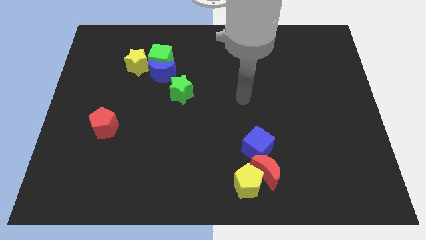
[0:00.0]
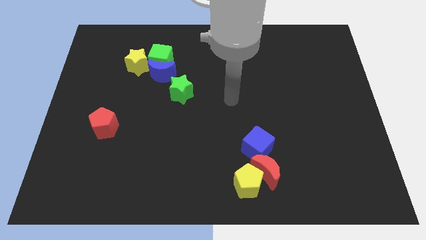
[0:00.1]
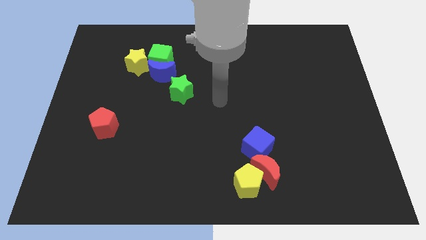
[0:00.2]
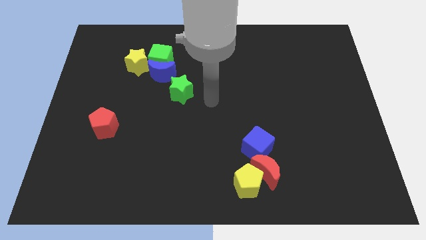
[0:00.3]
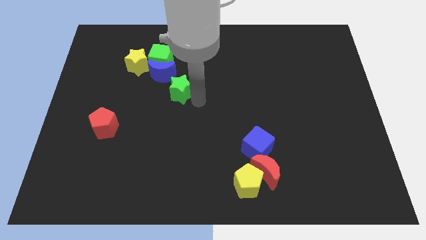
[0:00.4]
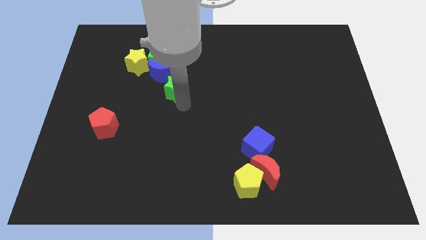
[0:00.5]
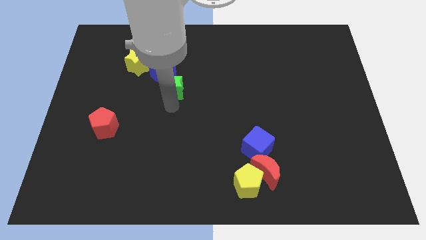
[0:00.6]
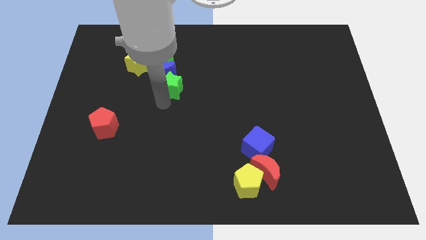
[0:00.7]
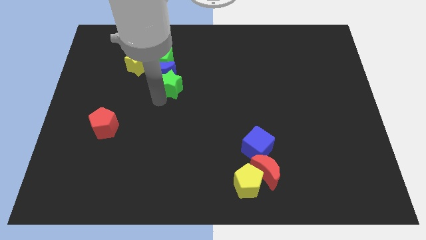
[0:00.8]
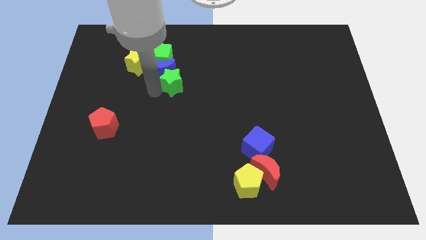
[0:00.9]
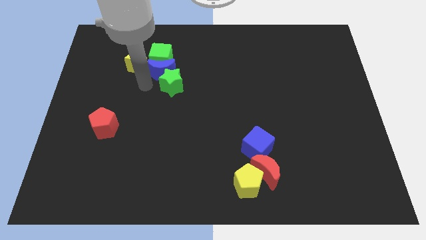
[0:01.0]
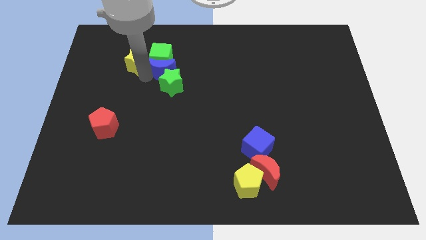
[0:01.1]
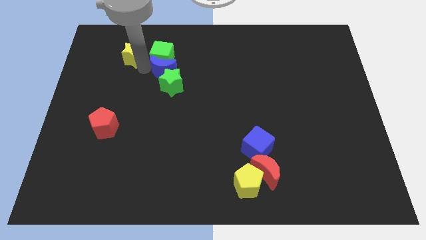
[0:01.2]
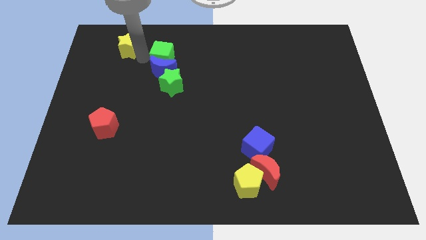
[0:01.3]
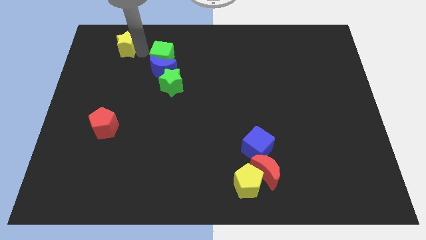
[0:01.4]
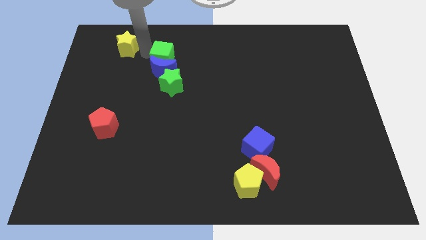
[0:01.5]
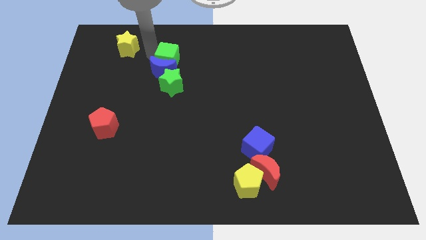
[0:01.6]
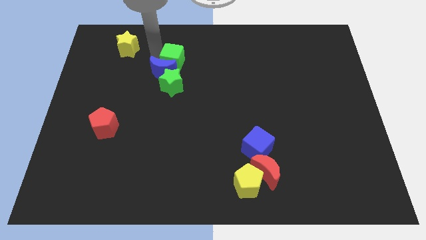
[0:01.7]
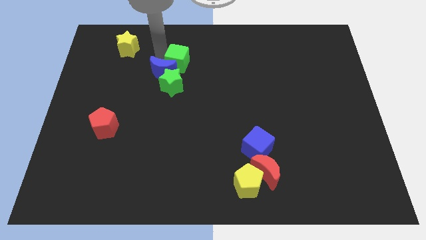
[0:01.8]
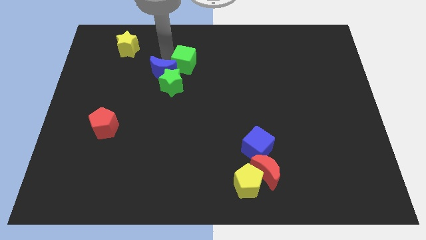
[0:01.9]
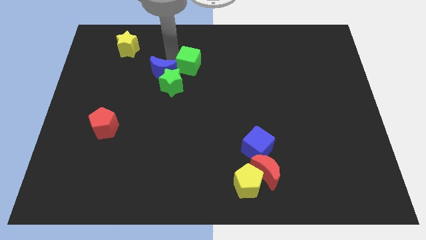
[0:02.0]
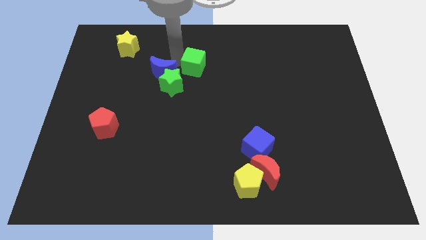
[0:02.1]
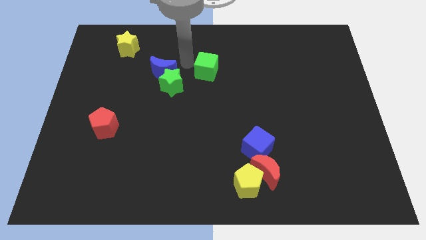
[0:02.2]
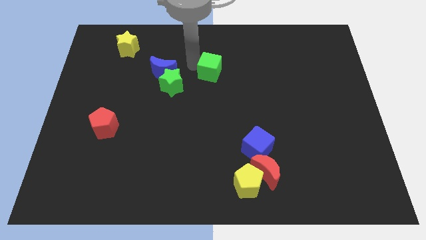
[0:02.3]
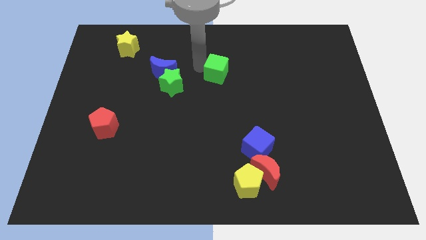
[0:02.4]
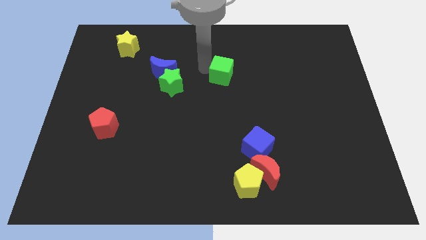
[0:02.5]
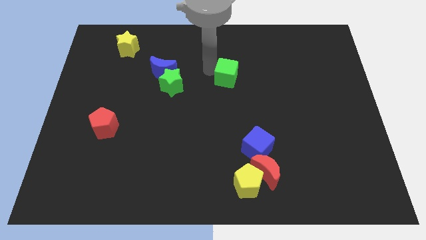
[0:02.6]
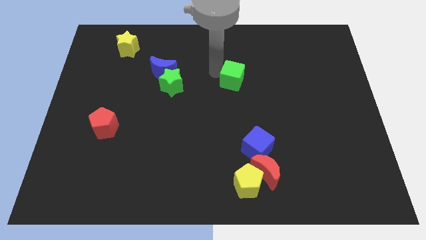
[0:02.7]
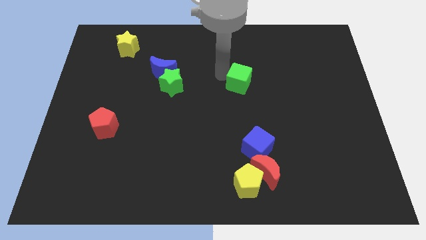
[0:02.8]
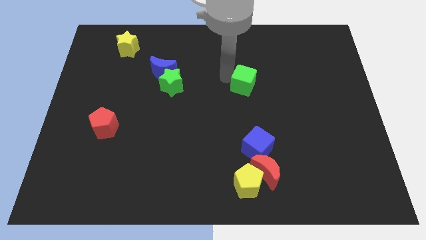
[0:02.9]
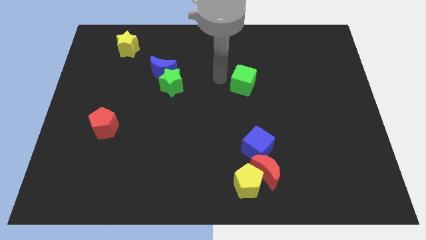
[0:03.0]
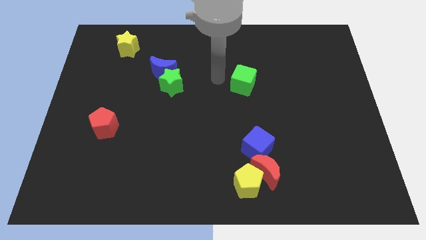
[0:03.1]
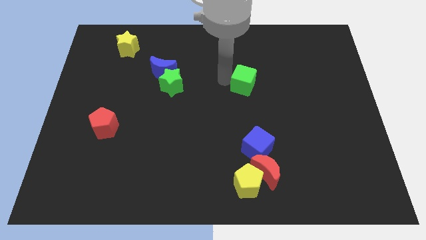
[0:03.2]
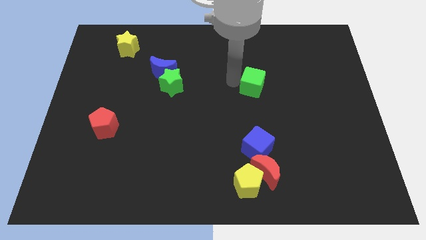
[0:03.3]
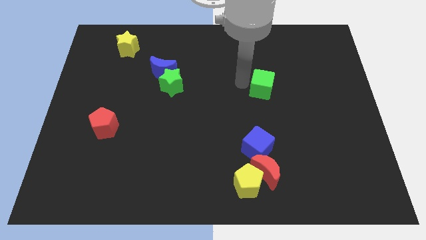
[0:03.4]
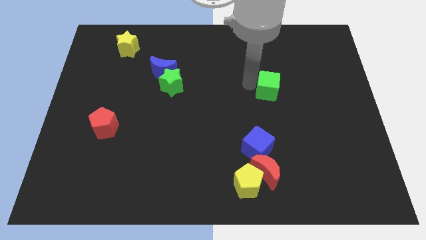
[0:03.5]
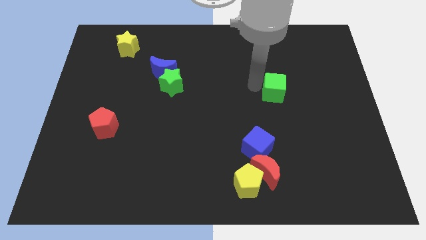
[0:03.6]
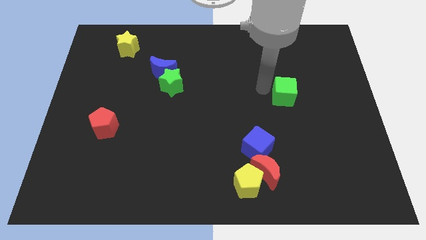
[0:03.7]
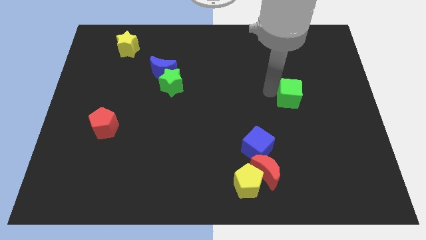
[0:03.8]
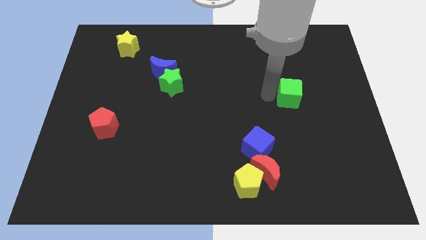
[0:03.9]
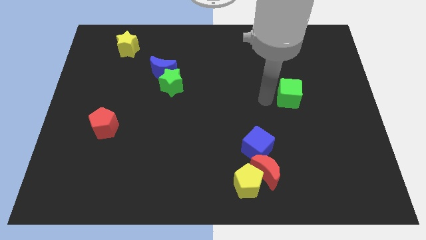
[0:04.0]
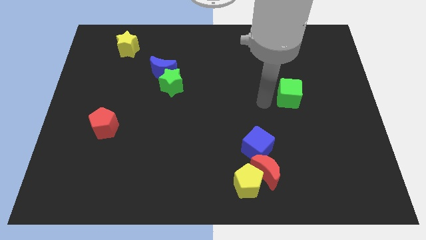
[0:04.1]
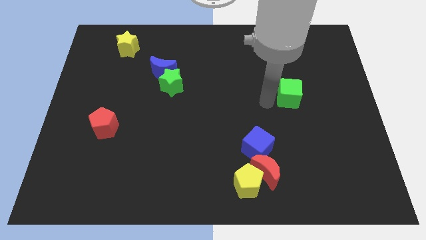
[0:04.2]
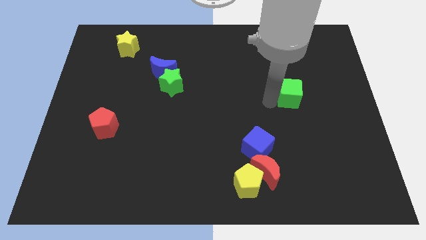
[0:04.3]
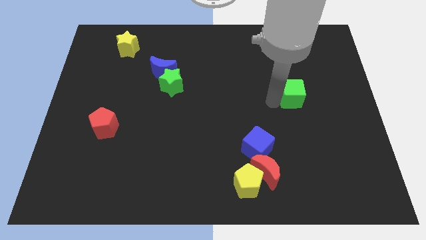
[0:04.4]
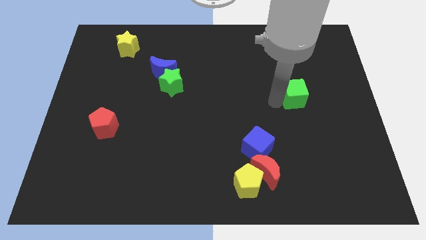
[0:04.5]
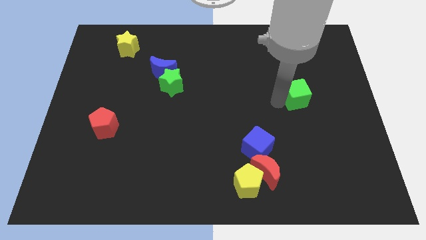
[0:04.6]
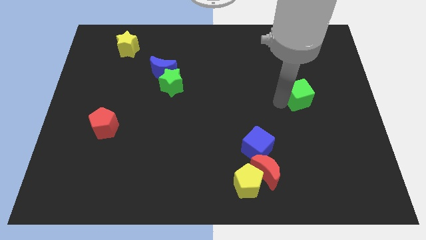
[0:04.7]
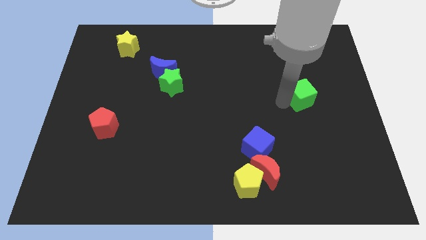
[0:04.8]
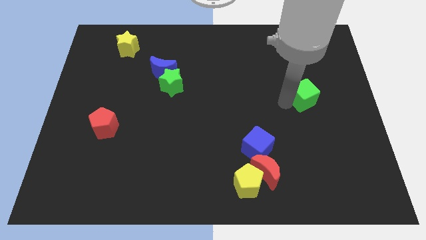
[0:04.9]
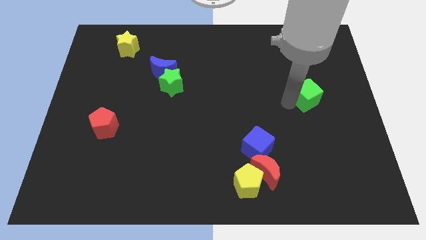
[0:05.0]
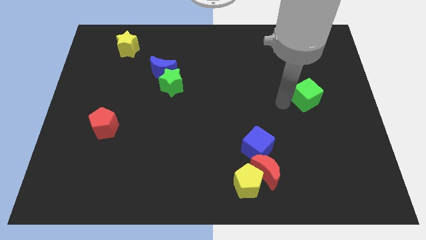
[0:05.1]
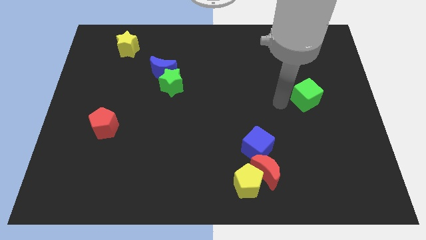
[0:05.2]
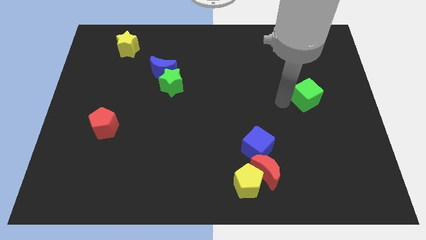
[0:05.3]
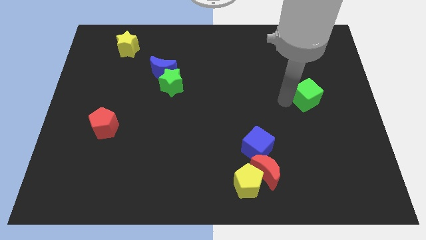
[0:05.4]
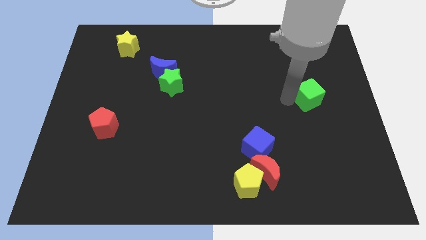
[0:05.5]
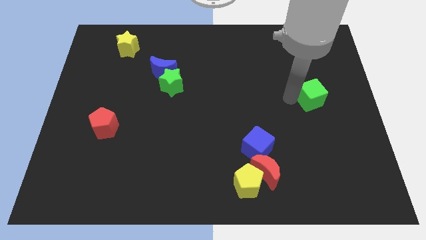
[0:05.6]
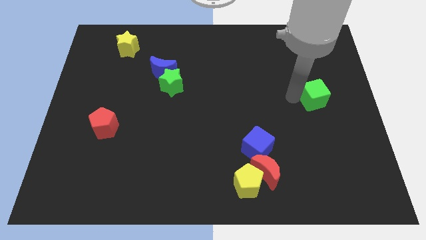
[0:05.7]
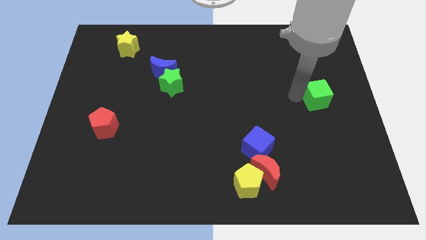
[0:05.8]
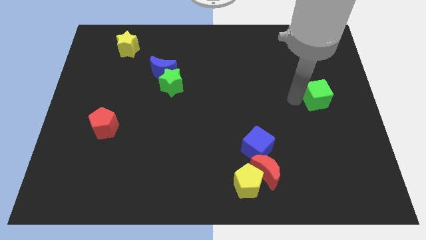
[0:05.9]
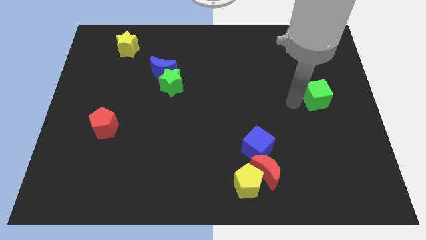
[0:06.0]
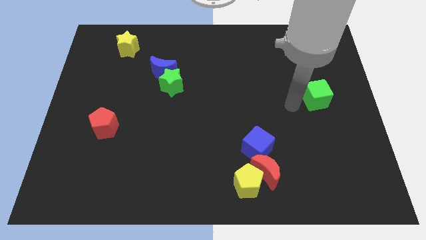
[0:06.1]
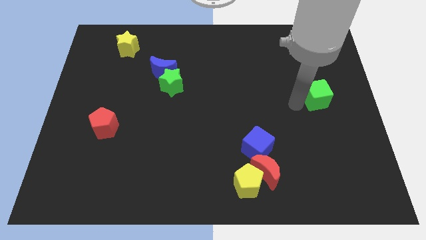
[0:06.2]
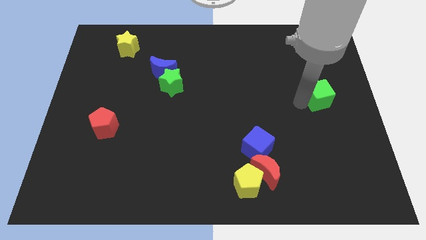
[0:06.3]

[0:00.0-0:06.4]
put the green cube to the right side of the board

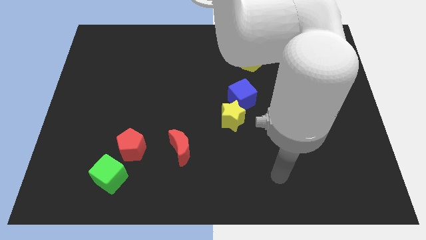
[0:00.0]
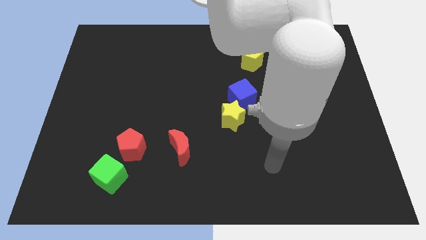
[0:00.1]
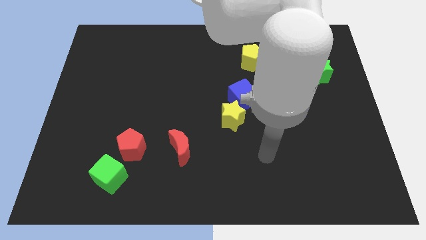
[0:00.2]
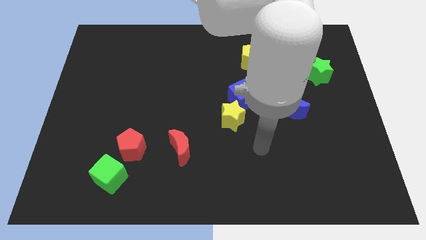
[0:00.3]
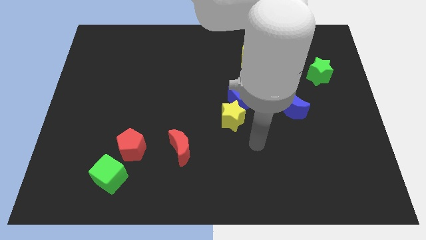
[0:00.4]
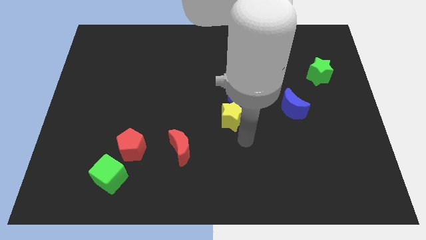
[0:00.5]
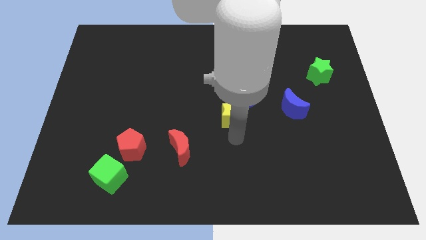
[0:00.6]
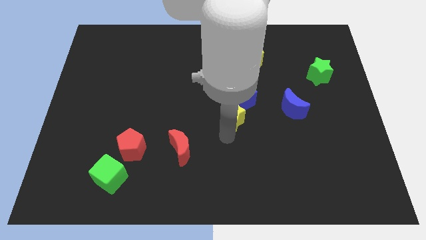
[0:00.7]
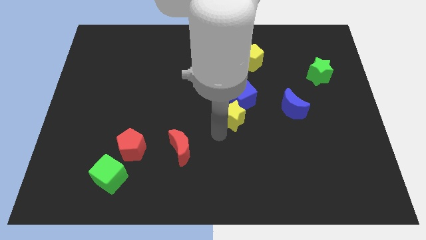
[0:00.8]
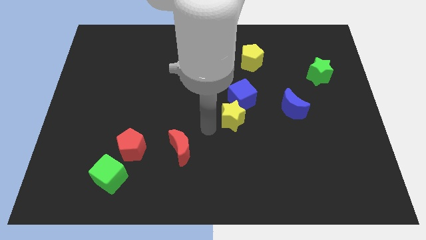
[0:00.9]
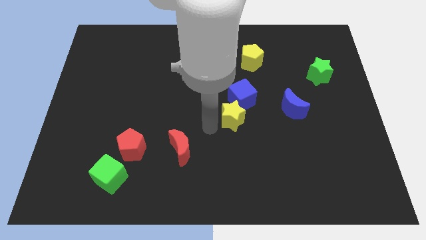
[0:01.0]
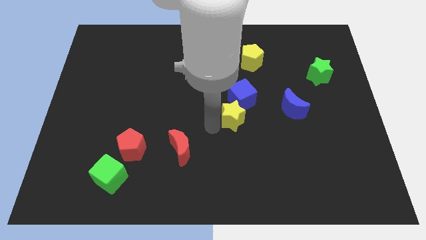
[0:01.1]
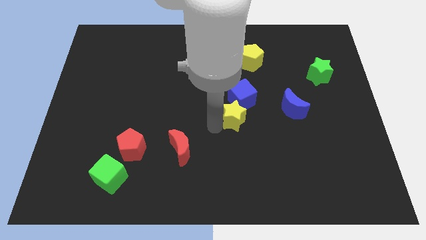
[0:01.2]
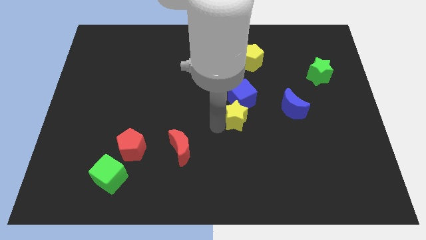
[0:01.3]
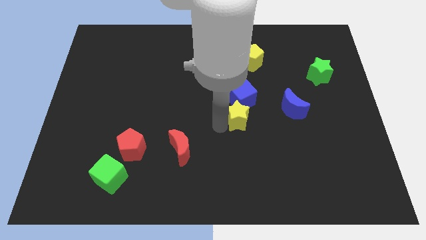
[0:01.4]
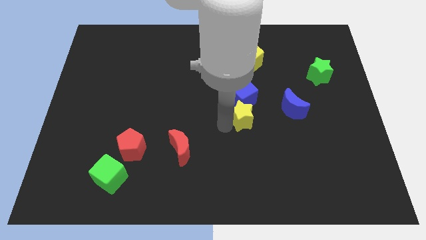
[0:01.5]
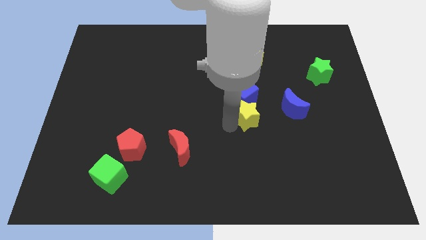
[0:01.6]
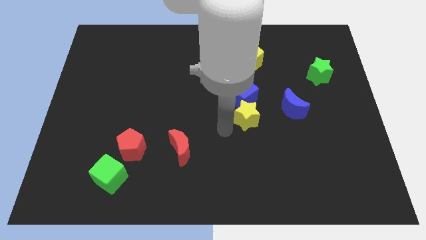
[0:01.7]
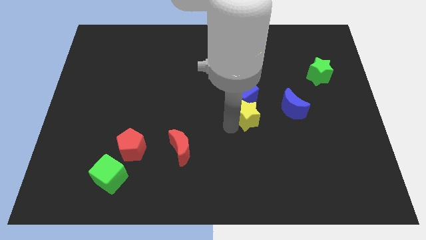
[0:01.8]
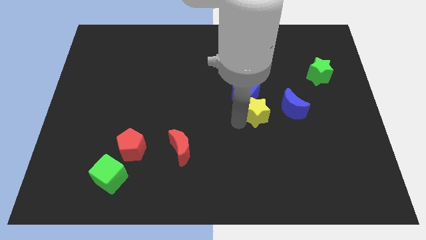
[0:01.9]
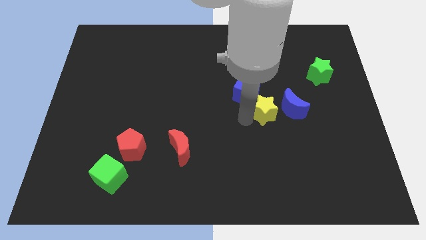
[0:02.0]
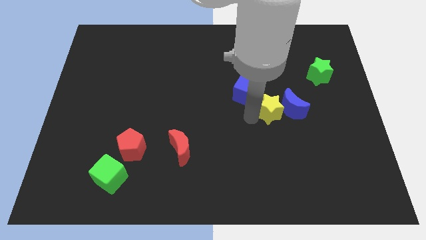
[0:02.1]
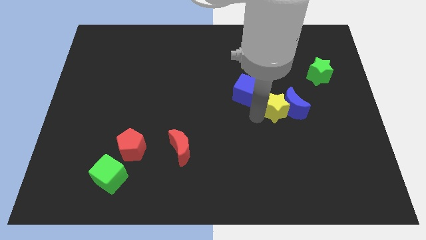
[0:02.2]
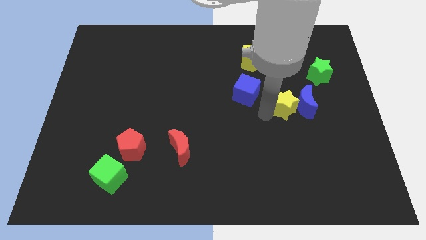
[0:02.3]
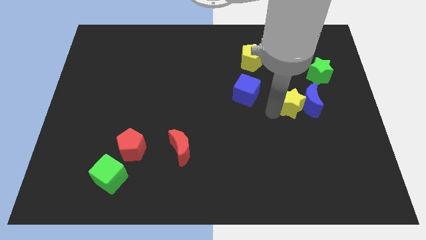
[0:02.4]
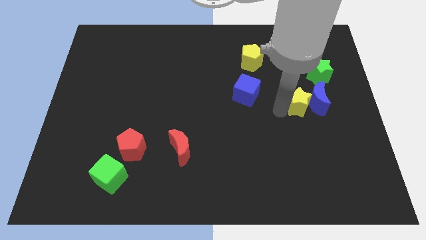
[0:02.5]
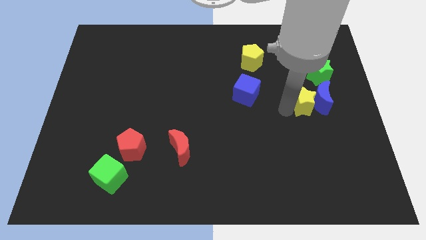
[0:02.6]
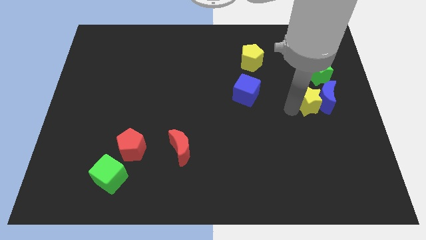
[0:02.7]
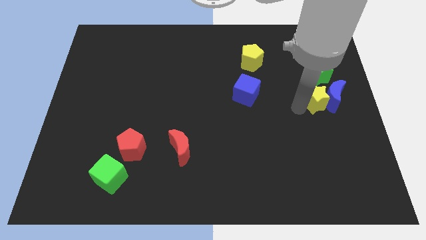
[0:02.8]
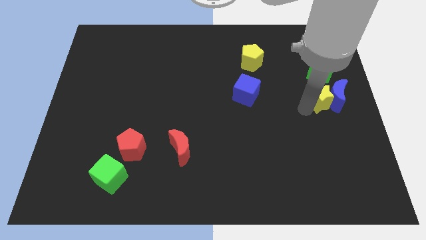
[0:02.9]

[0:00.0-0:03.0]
put the yellow star to the center right
